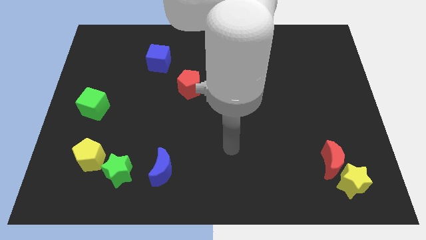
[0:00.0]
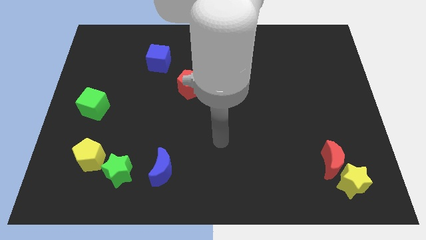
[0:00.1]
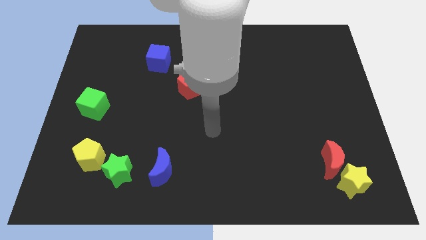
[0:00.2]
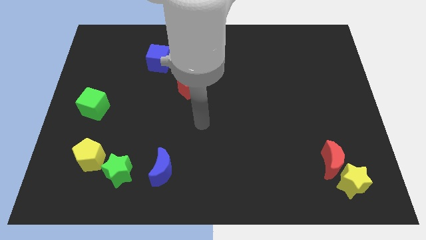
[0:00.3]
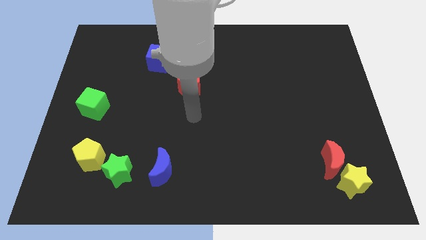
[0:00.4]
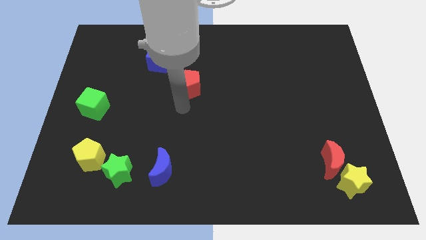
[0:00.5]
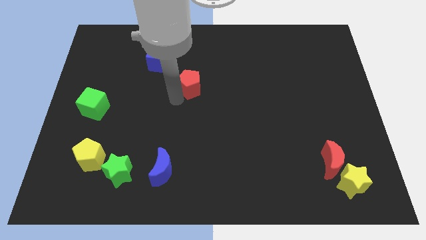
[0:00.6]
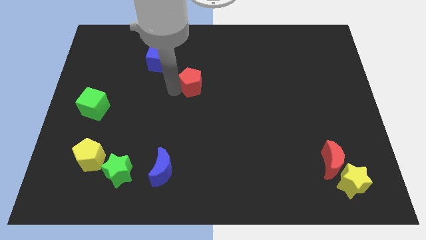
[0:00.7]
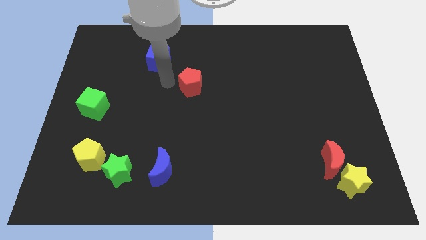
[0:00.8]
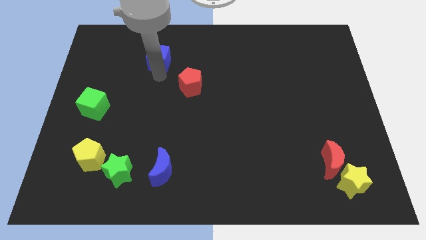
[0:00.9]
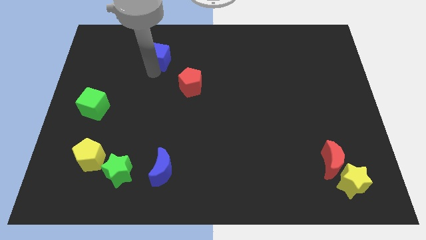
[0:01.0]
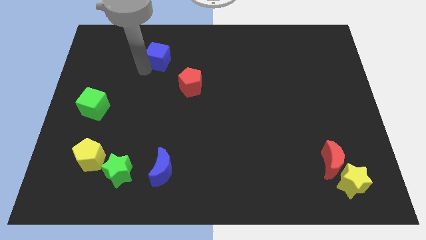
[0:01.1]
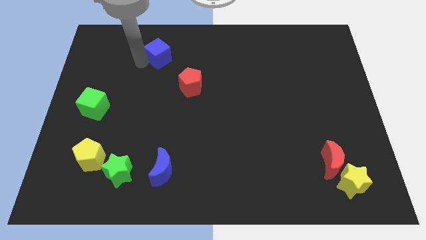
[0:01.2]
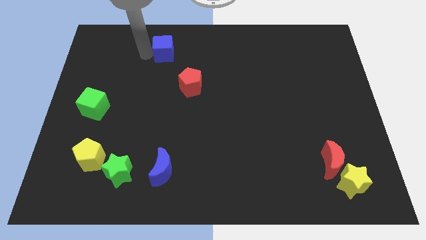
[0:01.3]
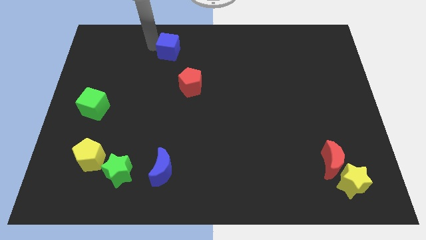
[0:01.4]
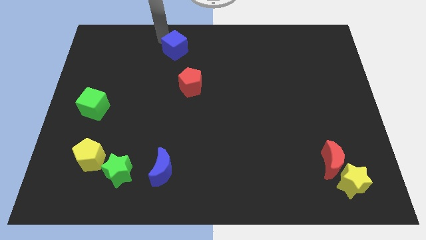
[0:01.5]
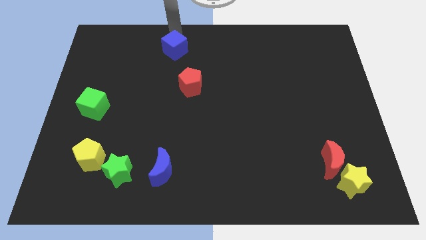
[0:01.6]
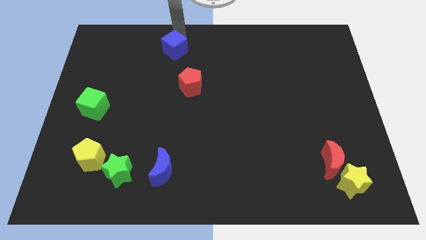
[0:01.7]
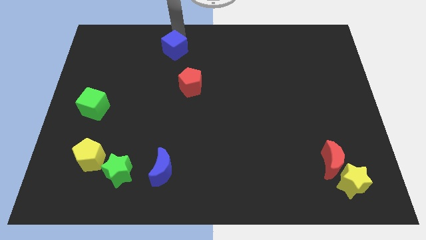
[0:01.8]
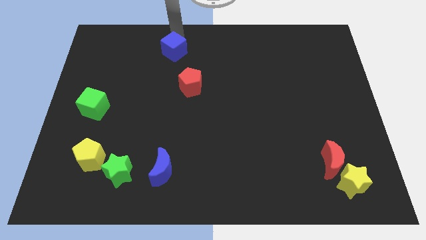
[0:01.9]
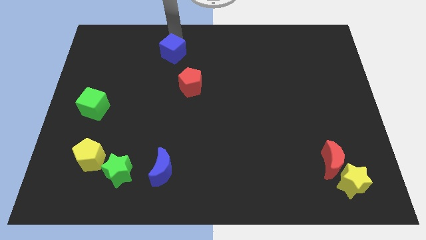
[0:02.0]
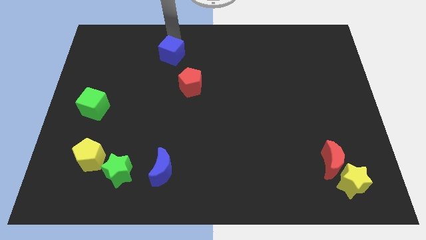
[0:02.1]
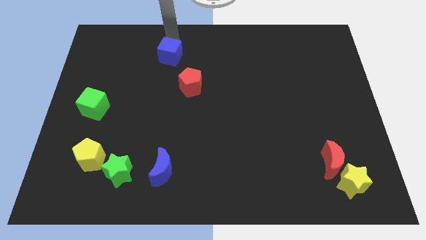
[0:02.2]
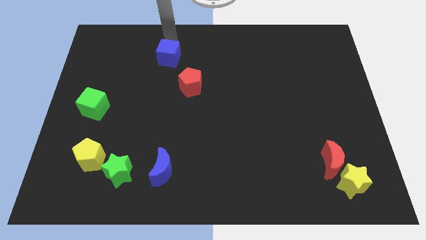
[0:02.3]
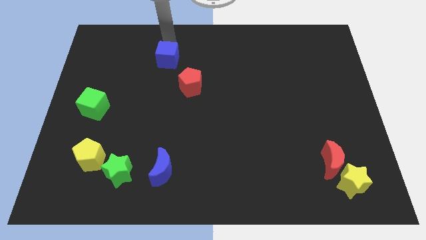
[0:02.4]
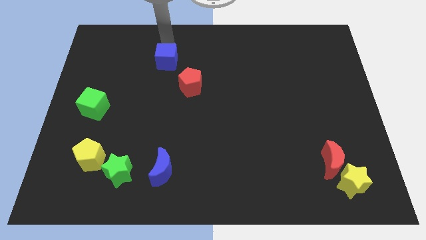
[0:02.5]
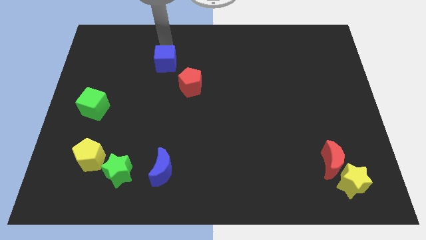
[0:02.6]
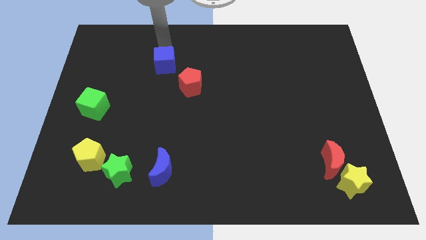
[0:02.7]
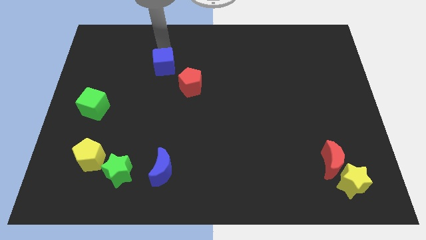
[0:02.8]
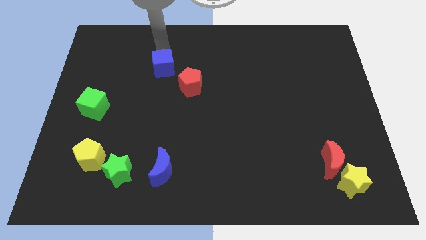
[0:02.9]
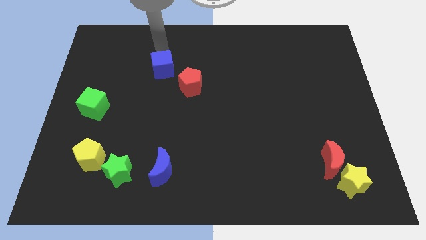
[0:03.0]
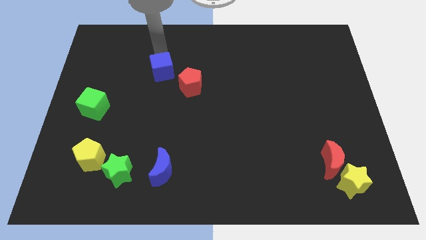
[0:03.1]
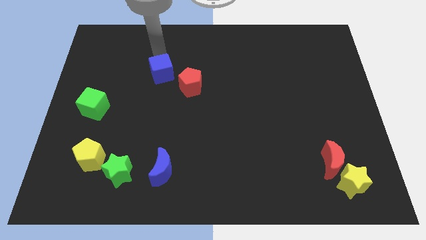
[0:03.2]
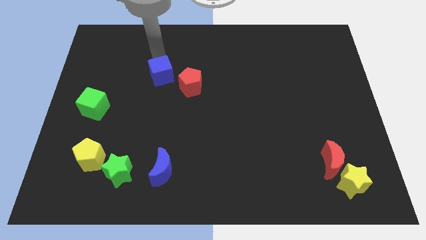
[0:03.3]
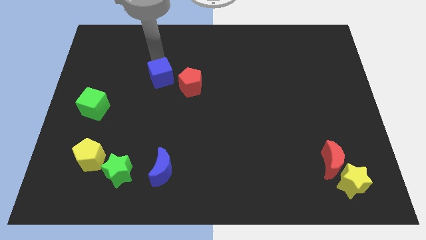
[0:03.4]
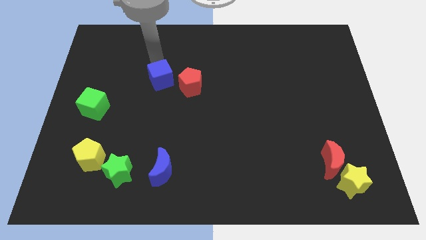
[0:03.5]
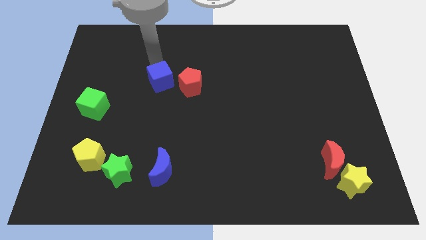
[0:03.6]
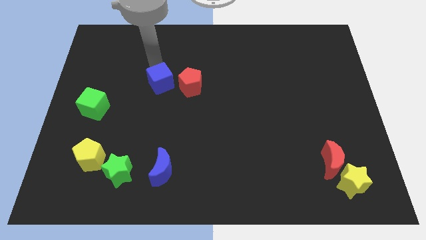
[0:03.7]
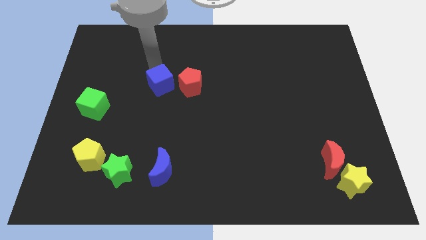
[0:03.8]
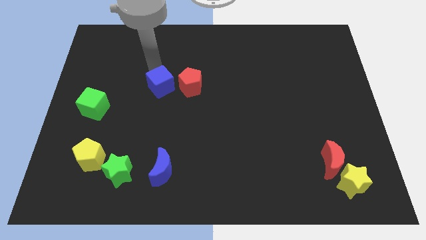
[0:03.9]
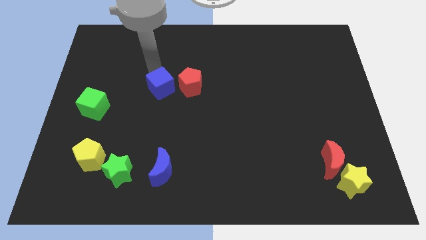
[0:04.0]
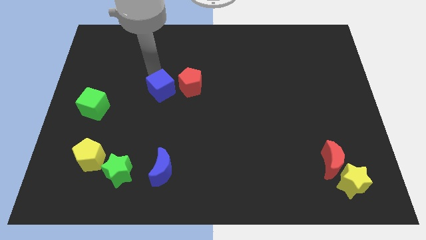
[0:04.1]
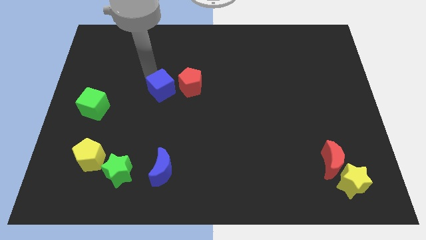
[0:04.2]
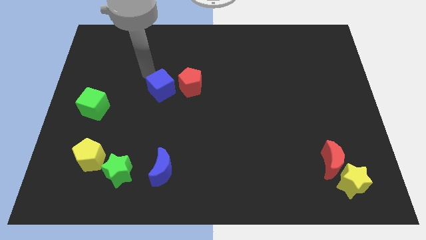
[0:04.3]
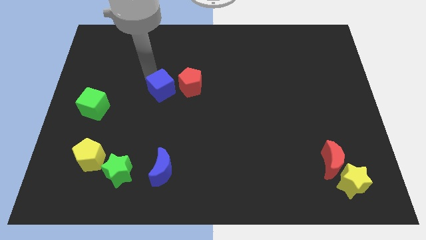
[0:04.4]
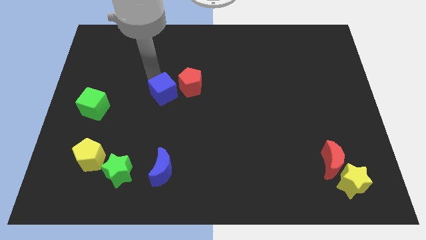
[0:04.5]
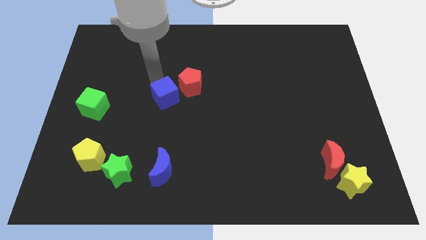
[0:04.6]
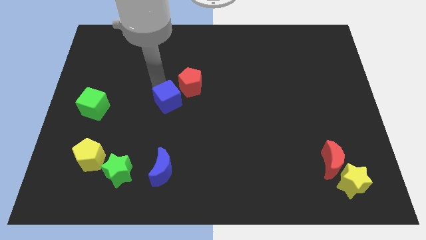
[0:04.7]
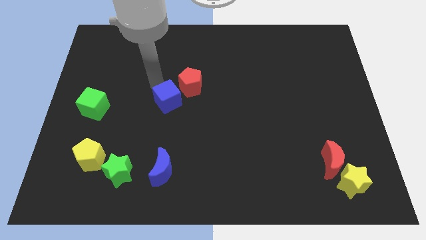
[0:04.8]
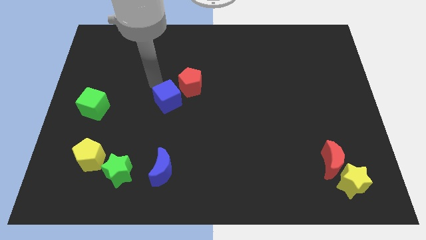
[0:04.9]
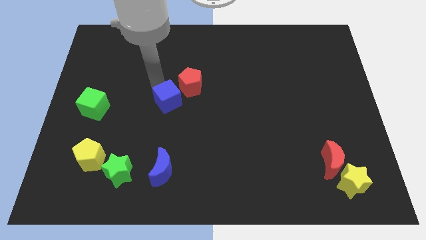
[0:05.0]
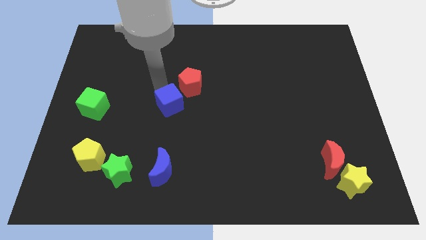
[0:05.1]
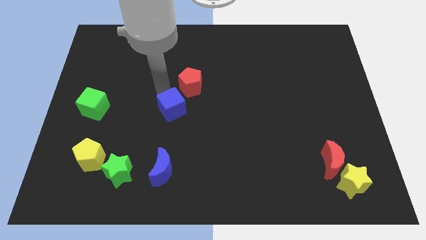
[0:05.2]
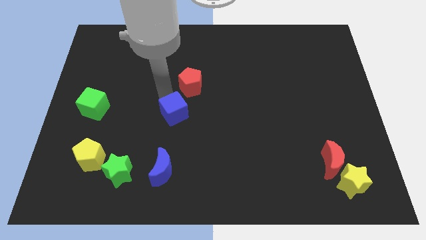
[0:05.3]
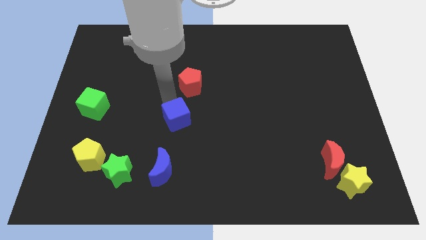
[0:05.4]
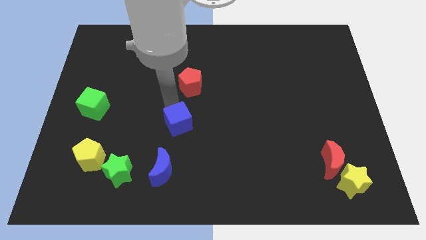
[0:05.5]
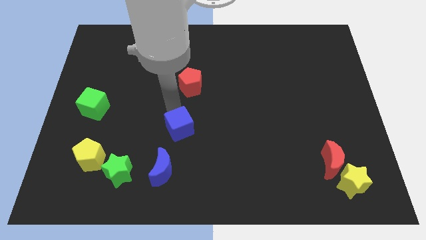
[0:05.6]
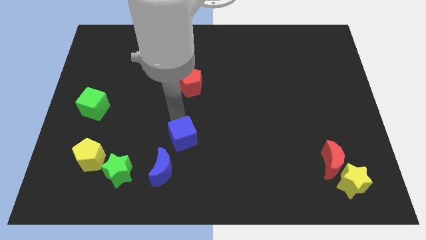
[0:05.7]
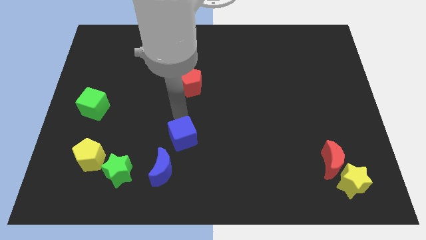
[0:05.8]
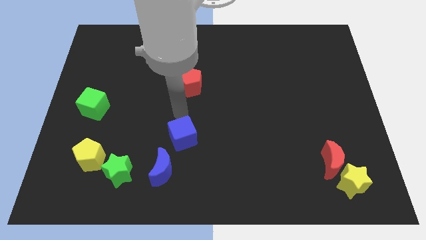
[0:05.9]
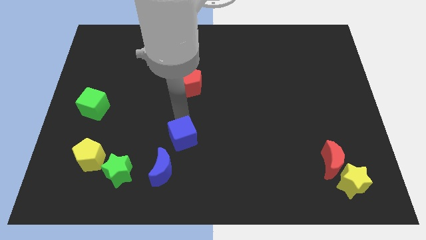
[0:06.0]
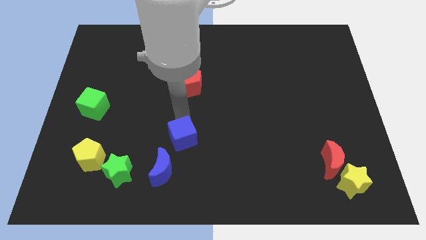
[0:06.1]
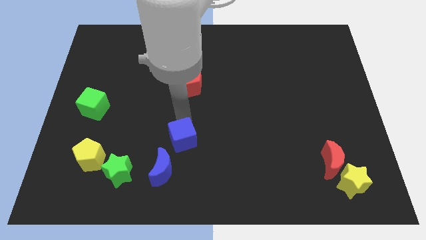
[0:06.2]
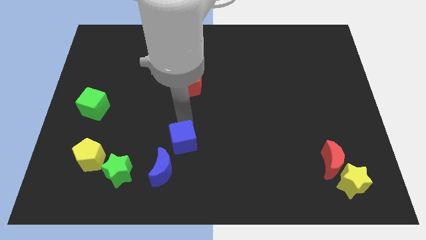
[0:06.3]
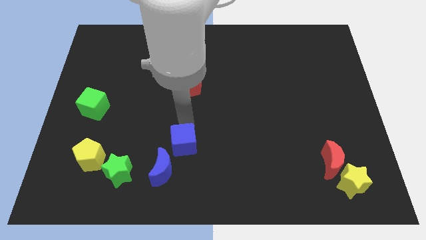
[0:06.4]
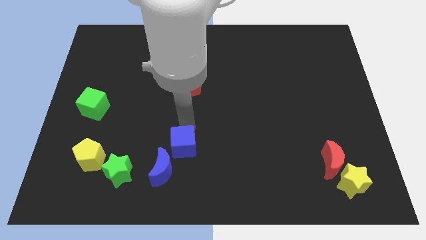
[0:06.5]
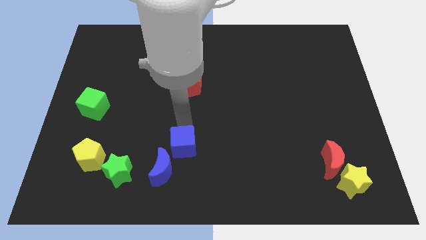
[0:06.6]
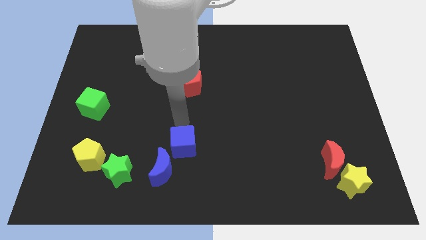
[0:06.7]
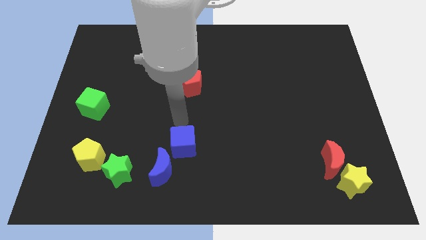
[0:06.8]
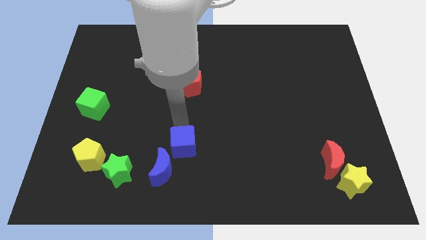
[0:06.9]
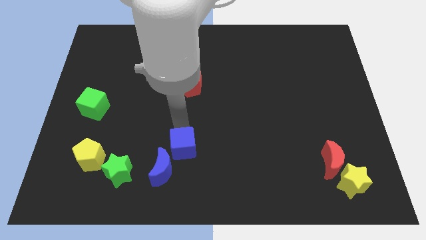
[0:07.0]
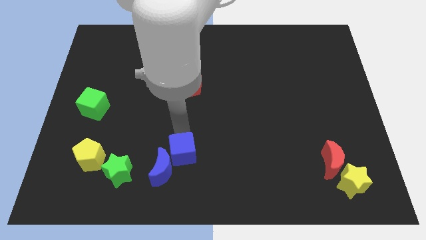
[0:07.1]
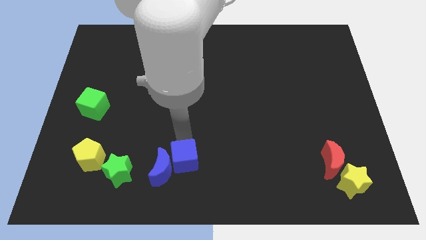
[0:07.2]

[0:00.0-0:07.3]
push the blue cube to the right side of the green star
